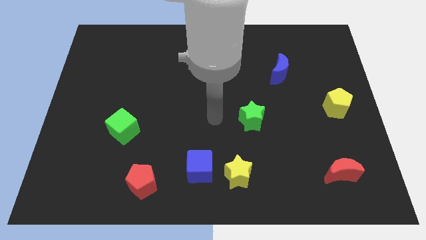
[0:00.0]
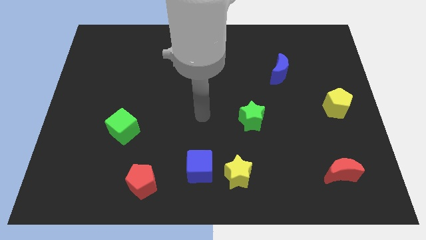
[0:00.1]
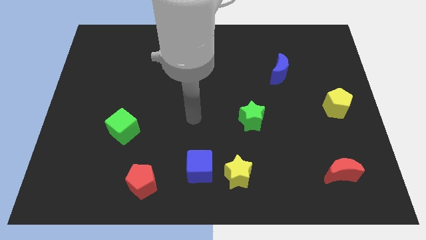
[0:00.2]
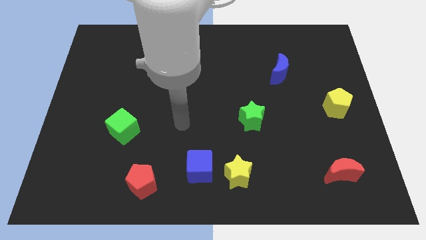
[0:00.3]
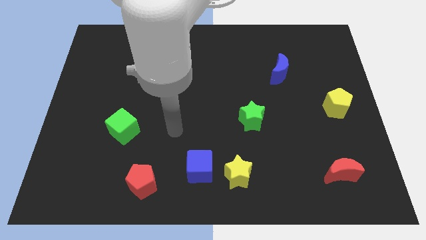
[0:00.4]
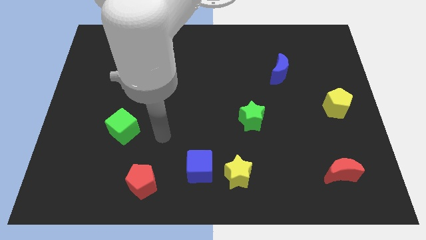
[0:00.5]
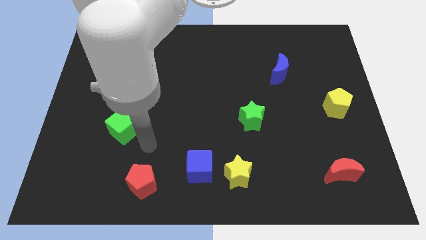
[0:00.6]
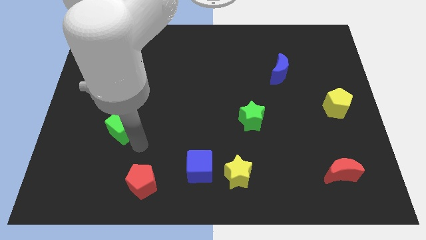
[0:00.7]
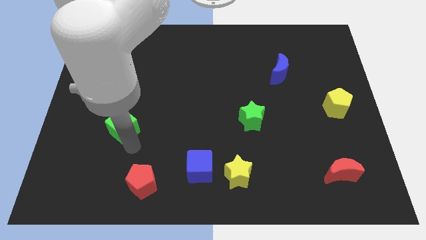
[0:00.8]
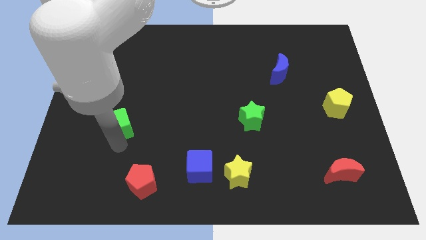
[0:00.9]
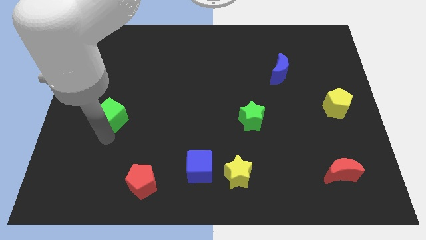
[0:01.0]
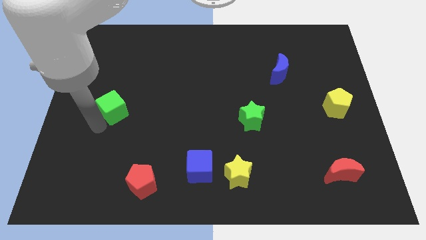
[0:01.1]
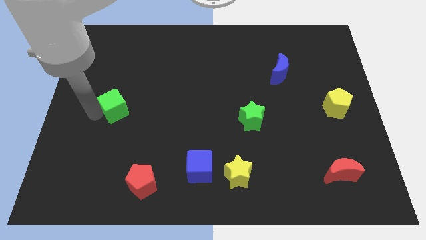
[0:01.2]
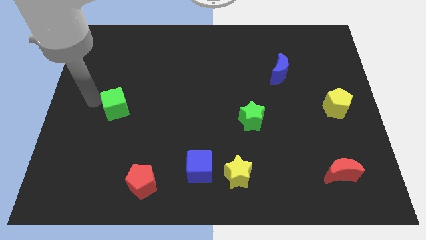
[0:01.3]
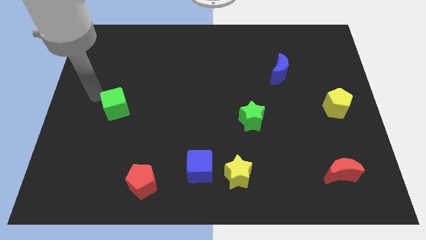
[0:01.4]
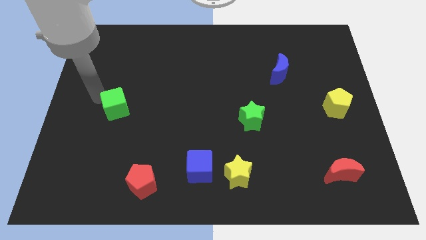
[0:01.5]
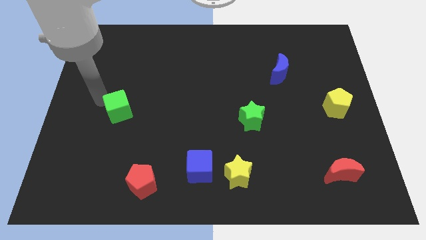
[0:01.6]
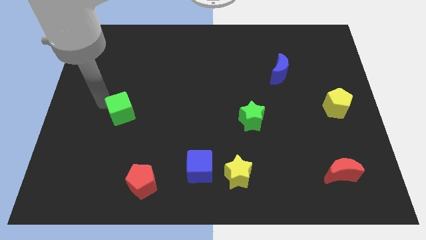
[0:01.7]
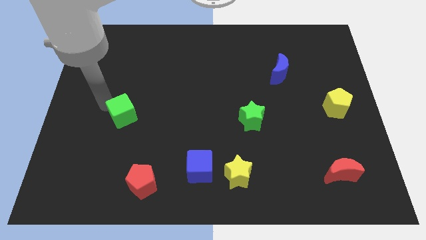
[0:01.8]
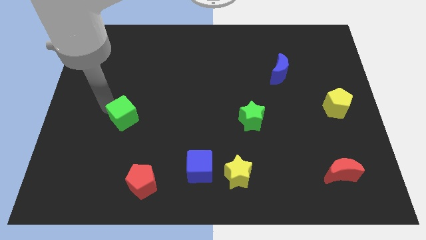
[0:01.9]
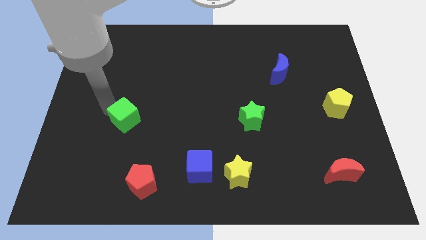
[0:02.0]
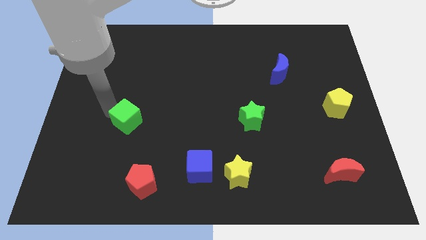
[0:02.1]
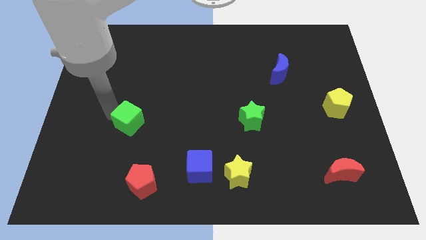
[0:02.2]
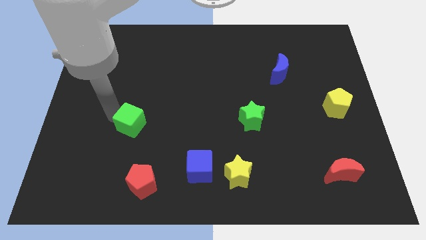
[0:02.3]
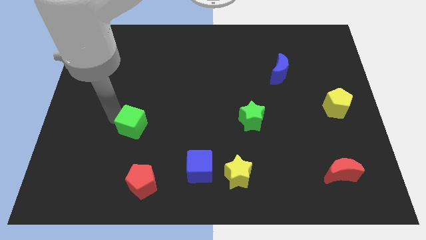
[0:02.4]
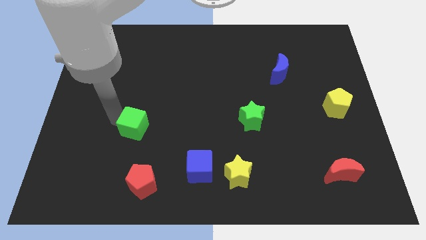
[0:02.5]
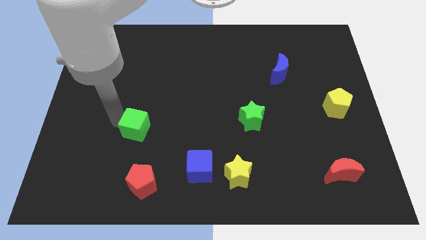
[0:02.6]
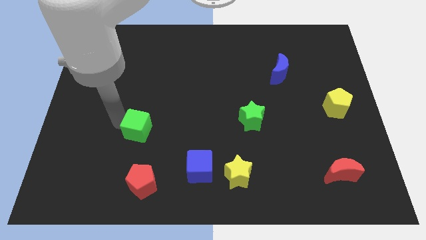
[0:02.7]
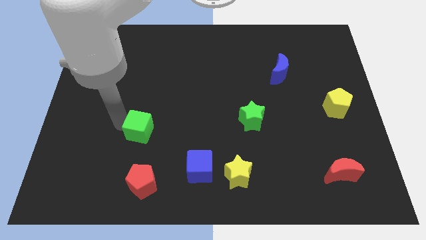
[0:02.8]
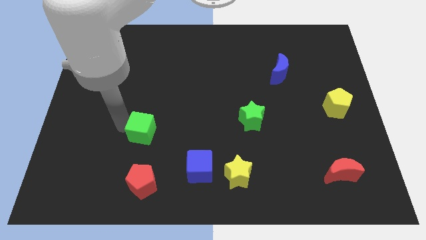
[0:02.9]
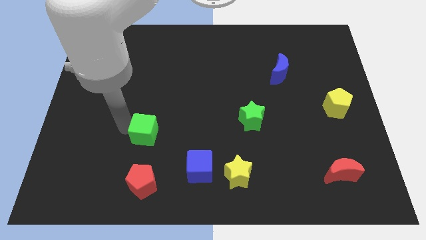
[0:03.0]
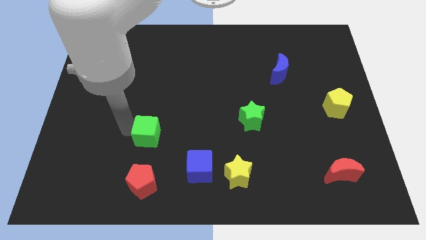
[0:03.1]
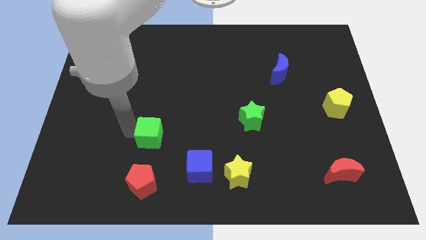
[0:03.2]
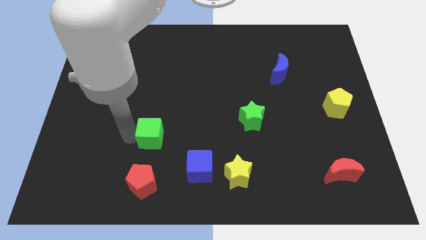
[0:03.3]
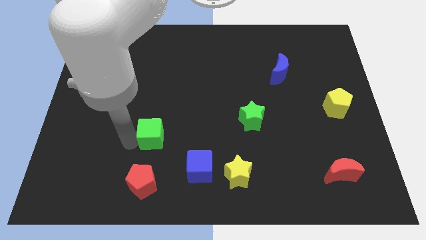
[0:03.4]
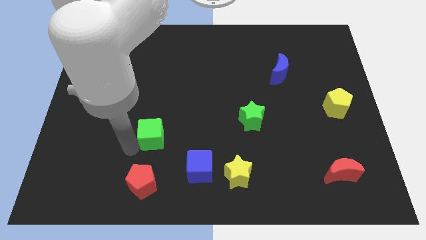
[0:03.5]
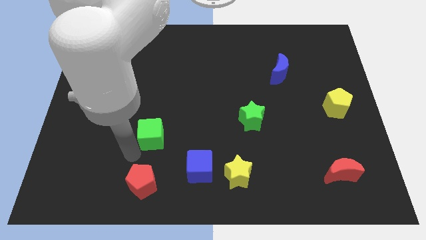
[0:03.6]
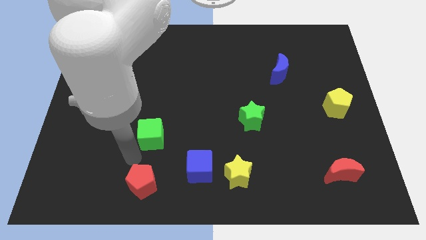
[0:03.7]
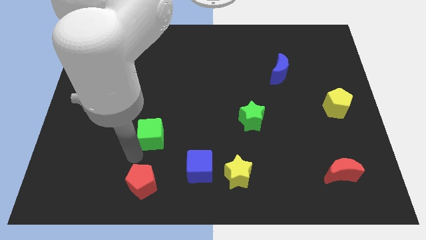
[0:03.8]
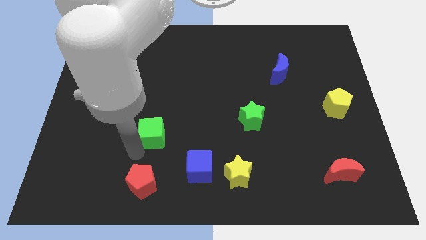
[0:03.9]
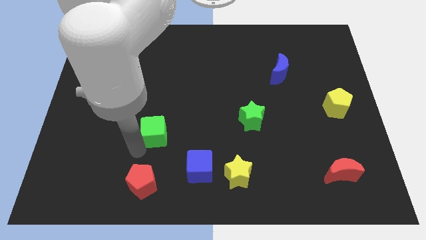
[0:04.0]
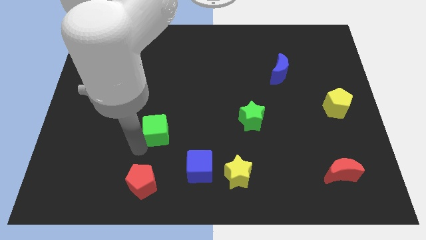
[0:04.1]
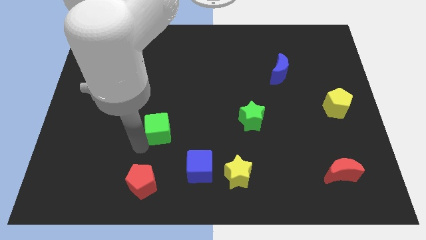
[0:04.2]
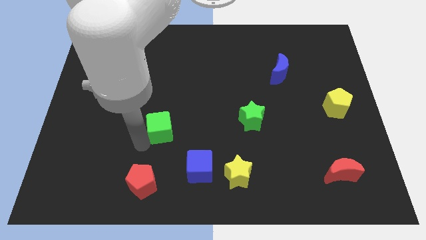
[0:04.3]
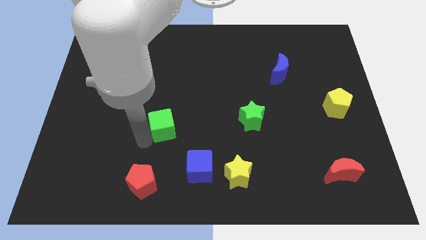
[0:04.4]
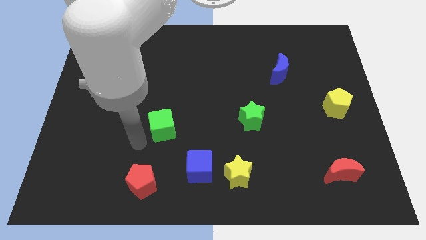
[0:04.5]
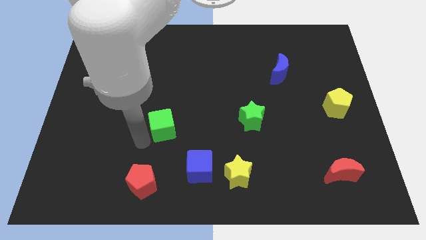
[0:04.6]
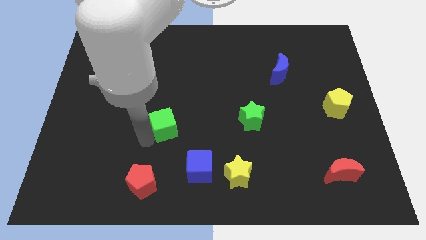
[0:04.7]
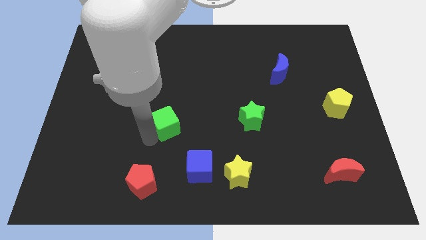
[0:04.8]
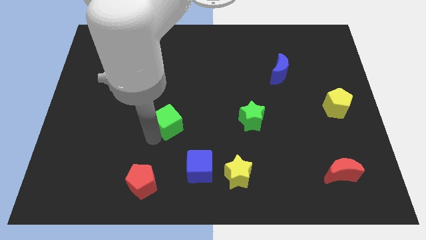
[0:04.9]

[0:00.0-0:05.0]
move the green cube to the center
